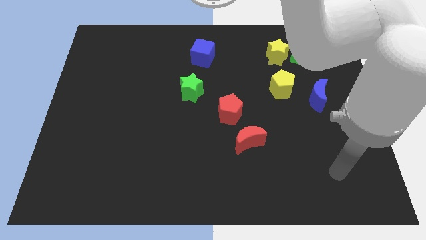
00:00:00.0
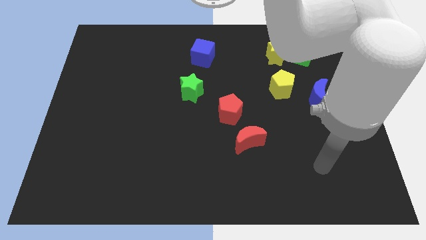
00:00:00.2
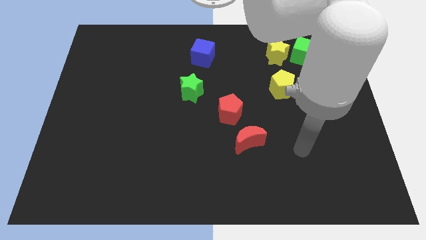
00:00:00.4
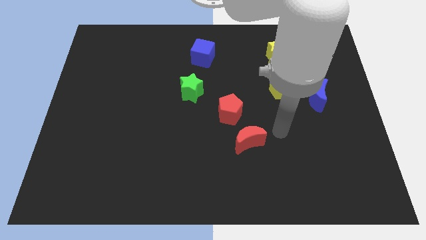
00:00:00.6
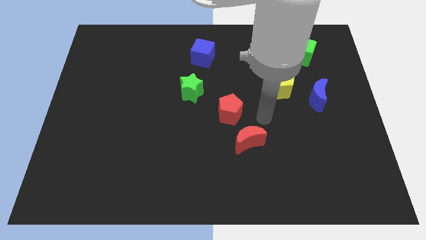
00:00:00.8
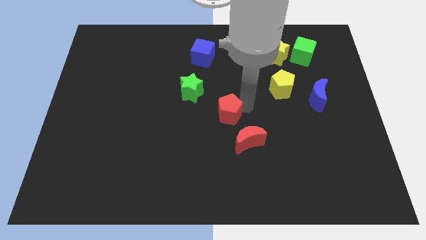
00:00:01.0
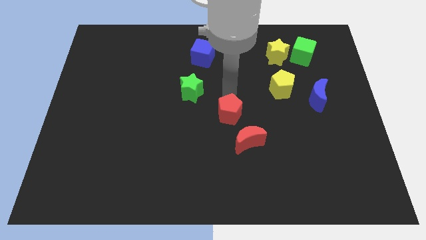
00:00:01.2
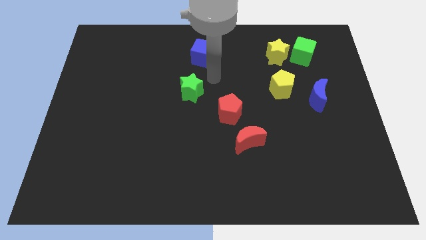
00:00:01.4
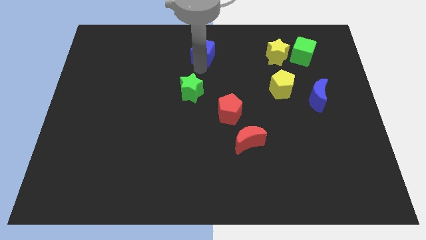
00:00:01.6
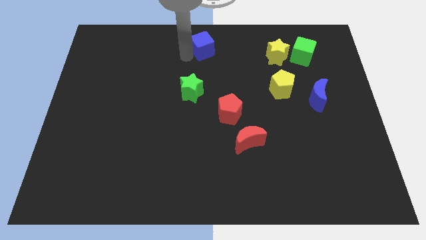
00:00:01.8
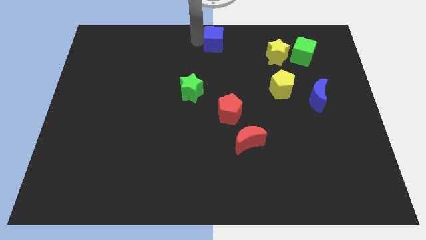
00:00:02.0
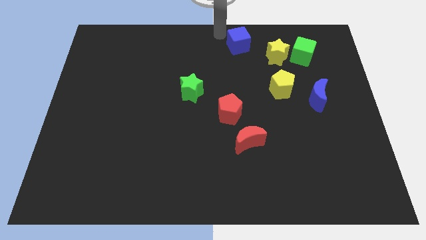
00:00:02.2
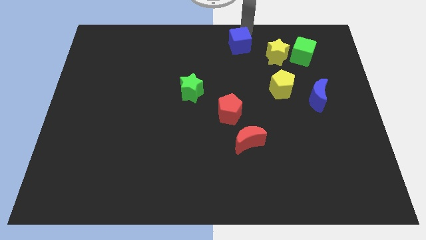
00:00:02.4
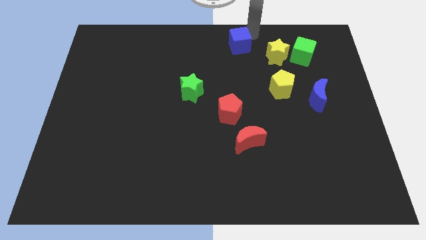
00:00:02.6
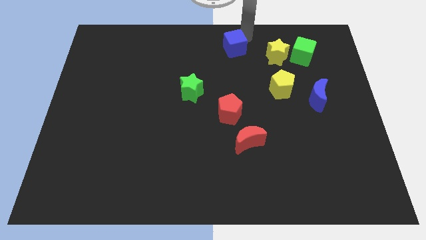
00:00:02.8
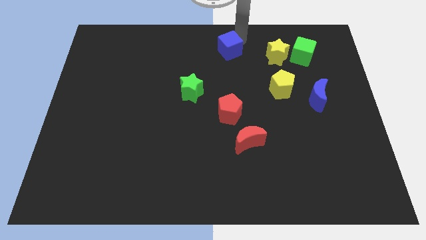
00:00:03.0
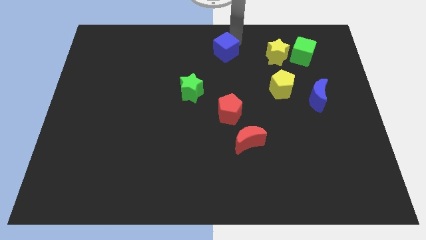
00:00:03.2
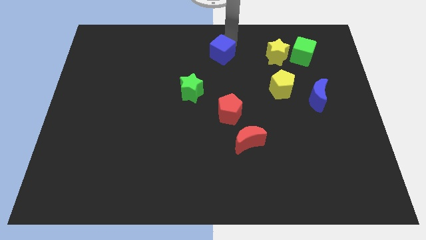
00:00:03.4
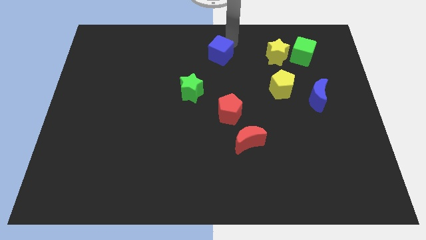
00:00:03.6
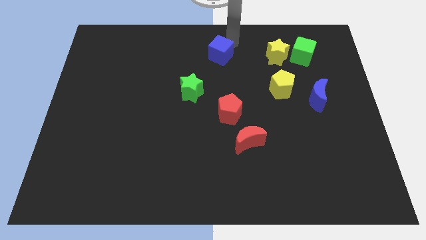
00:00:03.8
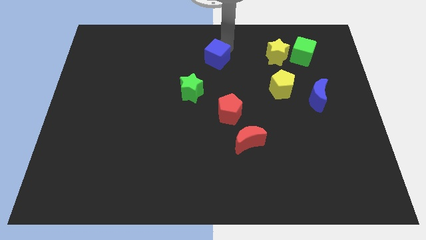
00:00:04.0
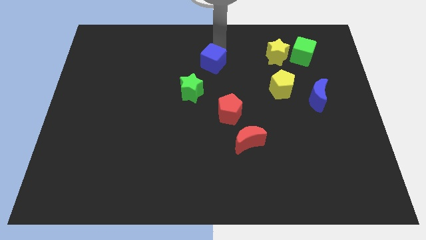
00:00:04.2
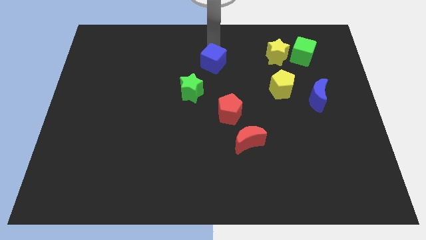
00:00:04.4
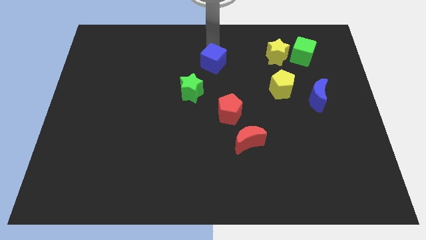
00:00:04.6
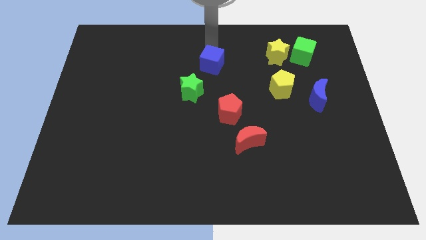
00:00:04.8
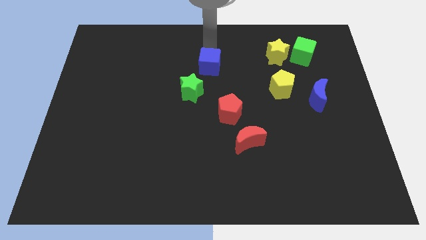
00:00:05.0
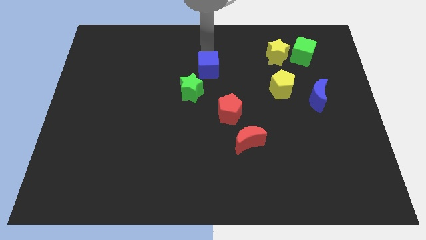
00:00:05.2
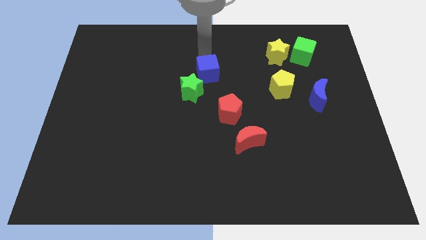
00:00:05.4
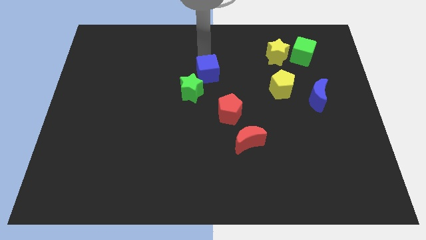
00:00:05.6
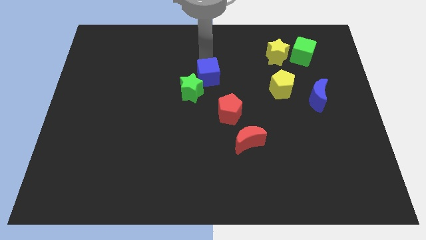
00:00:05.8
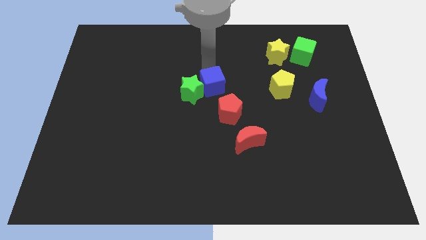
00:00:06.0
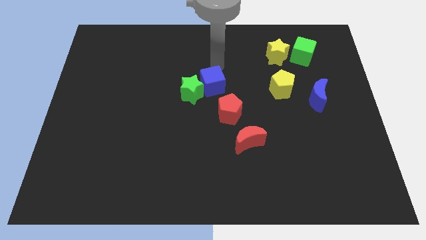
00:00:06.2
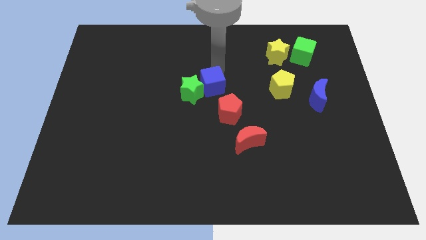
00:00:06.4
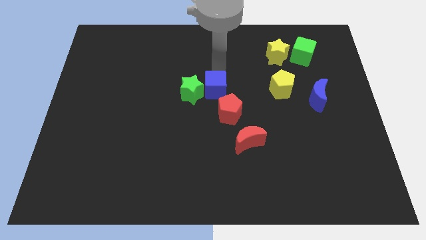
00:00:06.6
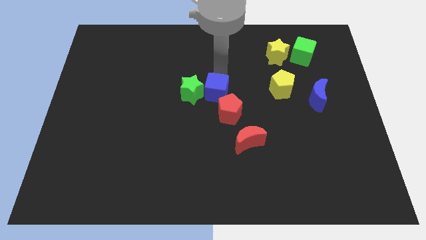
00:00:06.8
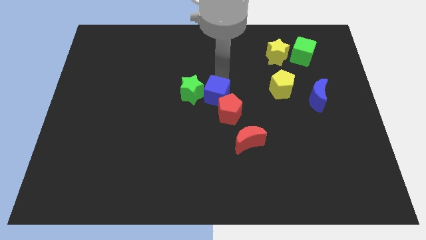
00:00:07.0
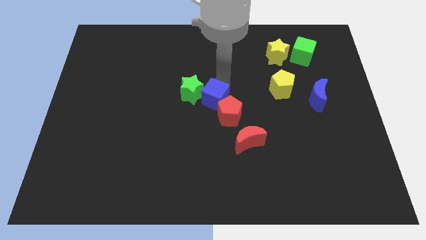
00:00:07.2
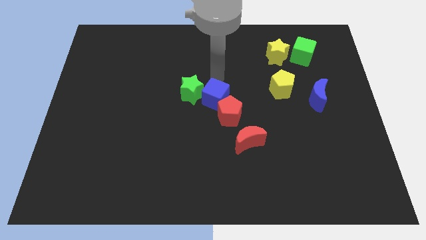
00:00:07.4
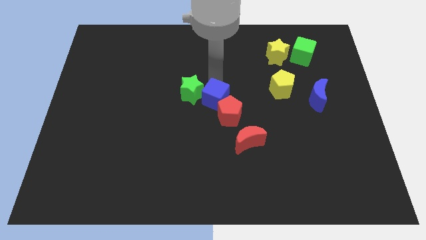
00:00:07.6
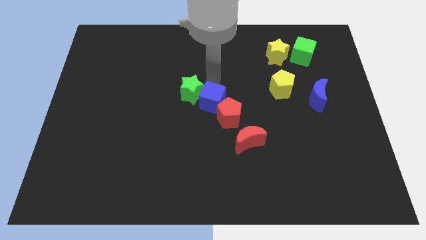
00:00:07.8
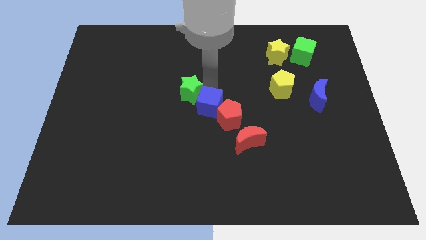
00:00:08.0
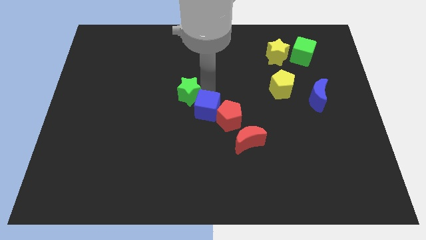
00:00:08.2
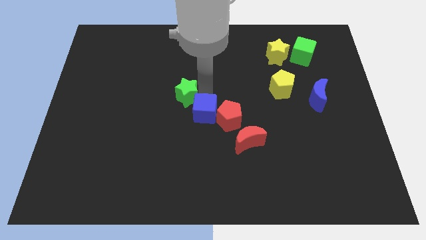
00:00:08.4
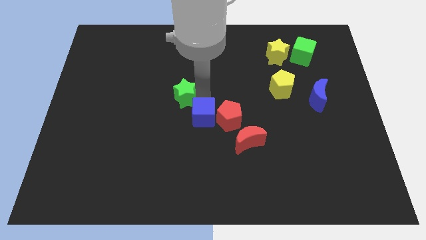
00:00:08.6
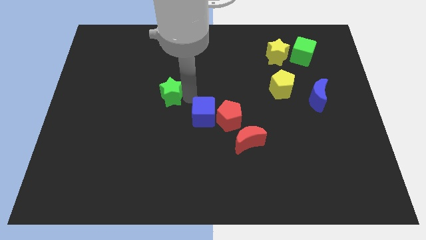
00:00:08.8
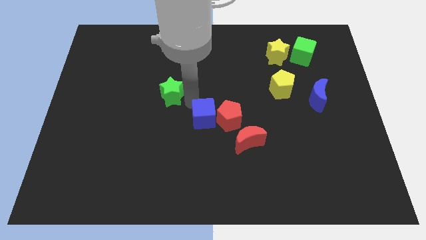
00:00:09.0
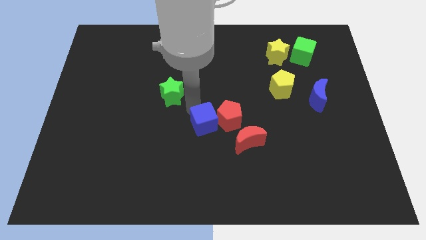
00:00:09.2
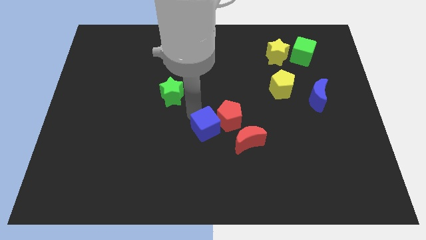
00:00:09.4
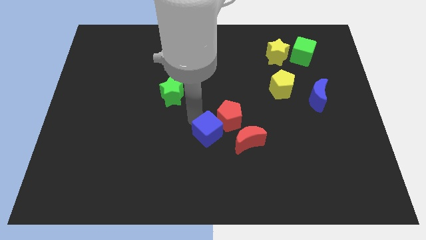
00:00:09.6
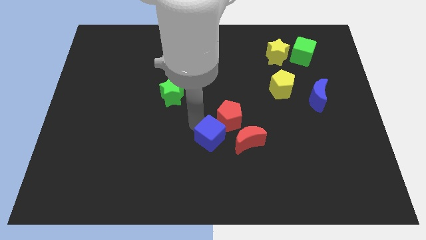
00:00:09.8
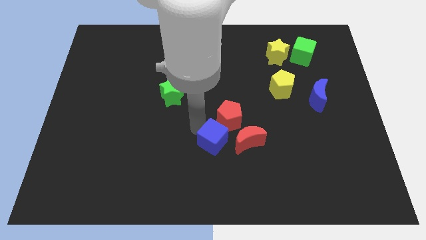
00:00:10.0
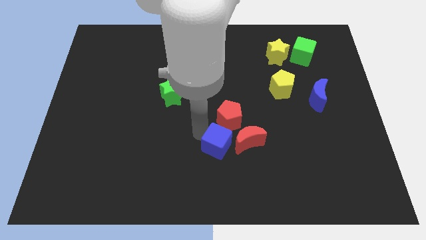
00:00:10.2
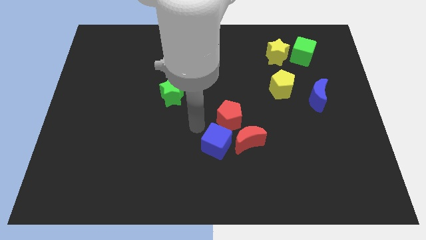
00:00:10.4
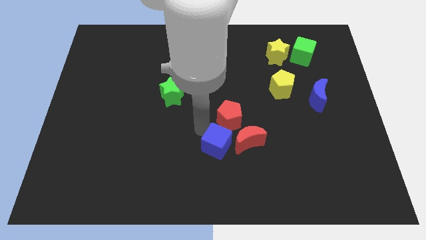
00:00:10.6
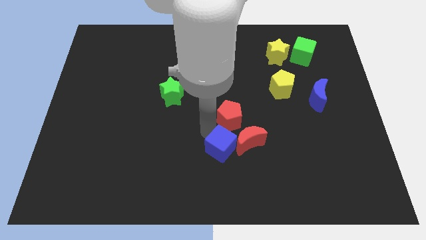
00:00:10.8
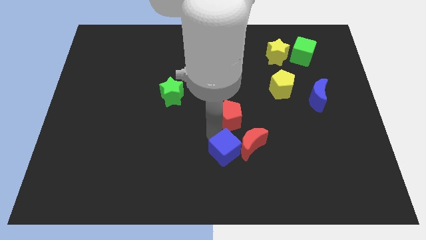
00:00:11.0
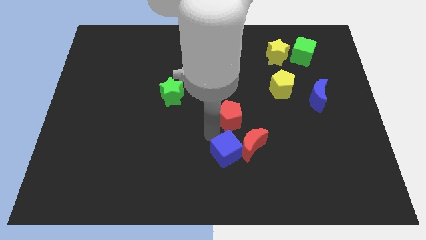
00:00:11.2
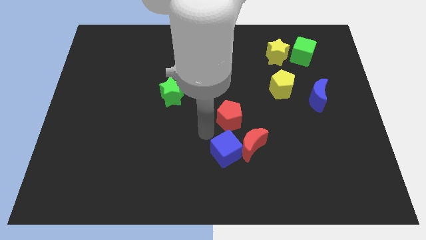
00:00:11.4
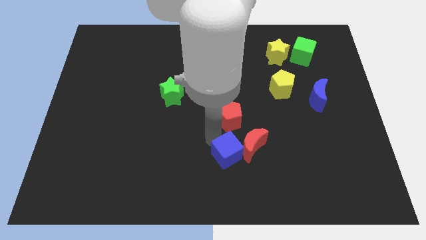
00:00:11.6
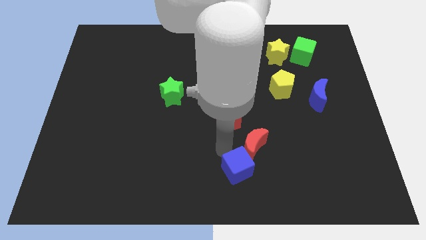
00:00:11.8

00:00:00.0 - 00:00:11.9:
move the blue cube to the bottom of the red moon

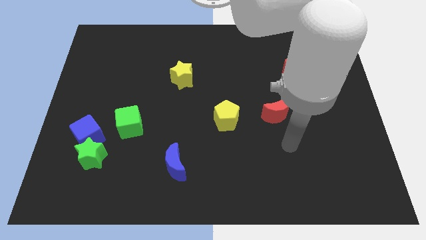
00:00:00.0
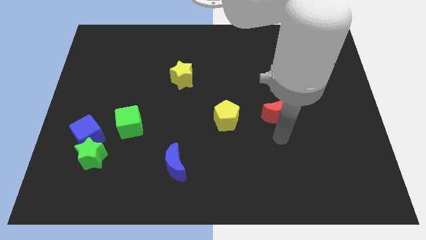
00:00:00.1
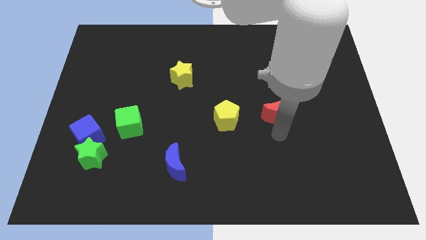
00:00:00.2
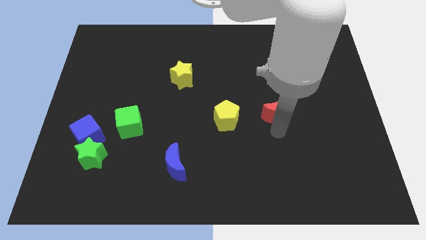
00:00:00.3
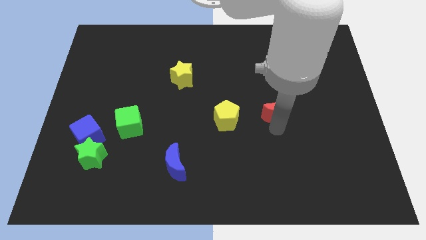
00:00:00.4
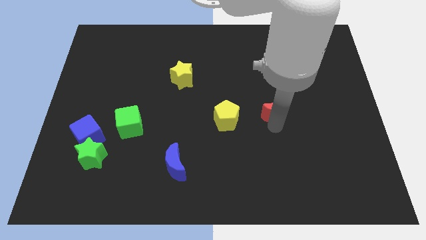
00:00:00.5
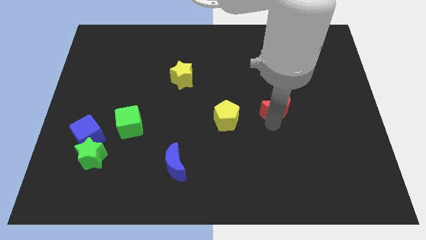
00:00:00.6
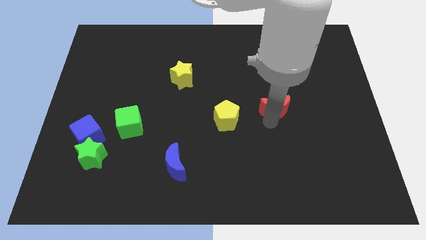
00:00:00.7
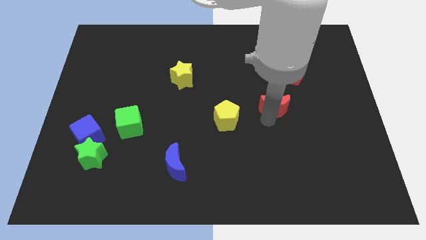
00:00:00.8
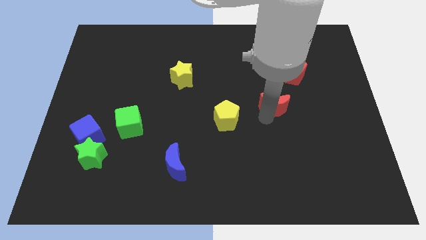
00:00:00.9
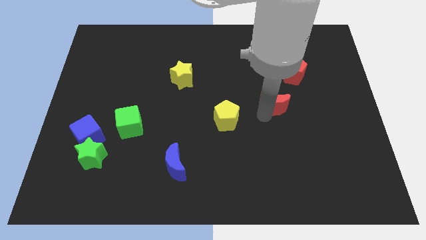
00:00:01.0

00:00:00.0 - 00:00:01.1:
put the red moon diagonally down and to the left of the red pentagon
